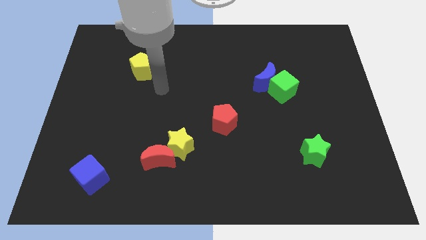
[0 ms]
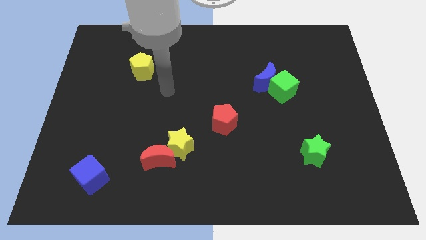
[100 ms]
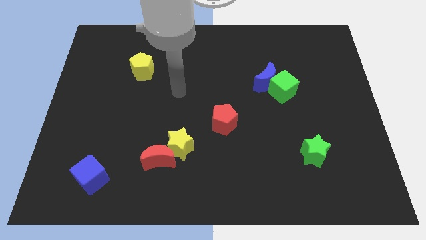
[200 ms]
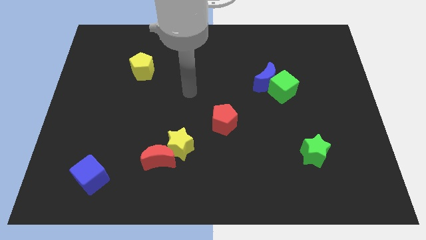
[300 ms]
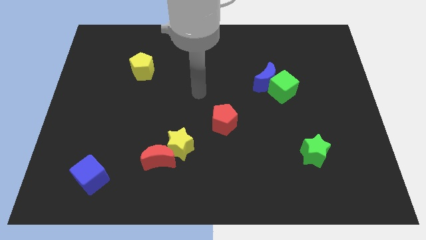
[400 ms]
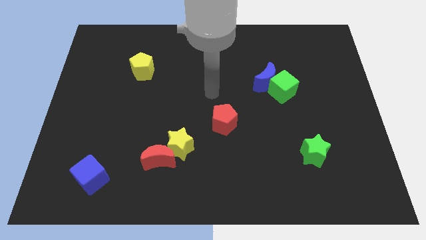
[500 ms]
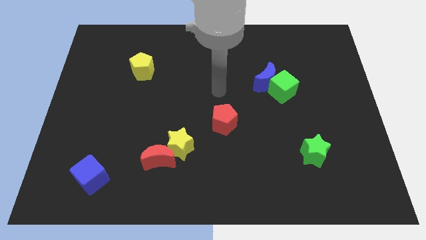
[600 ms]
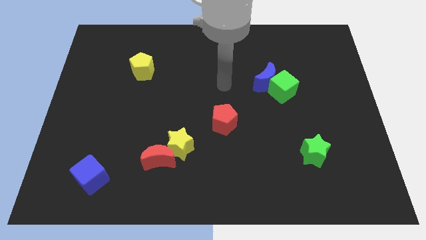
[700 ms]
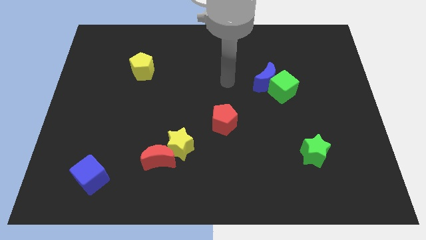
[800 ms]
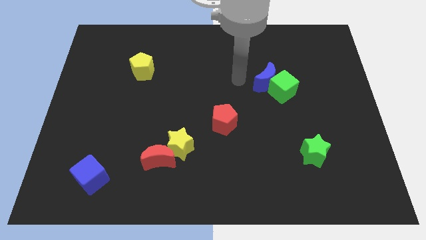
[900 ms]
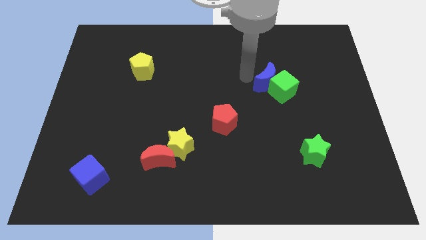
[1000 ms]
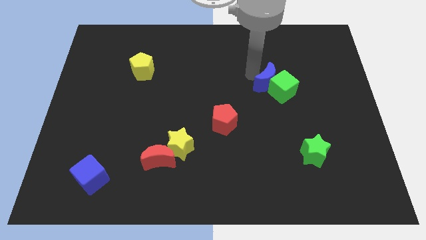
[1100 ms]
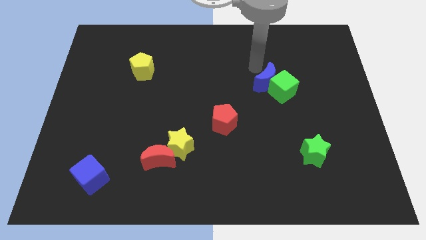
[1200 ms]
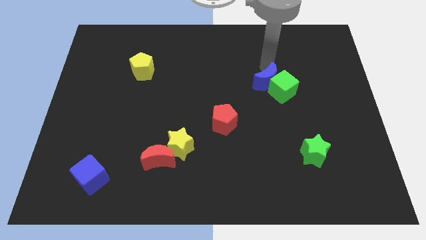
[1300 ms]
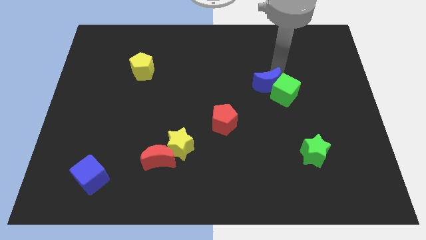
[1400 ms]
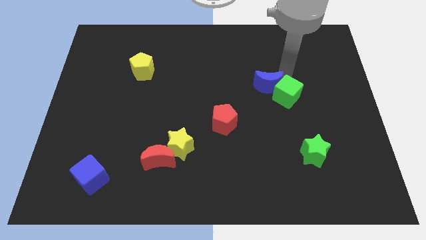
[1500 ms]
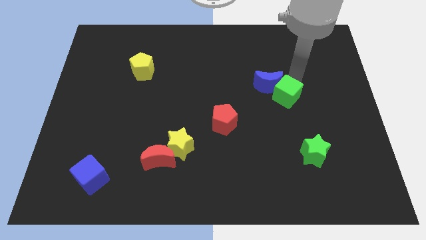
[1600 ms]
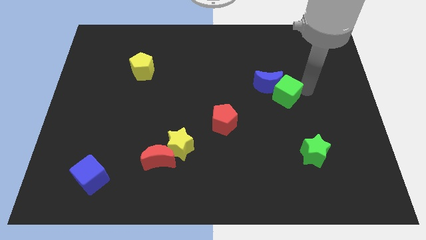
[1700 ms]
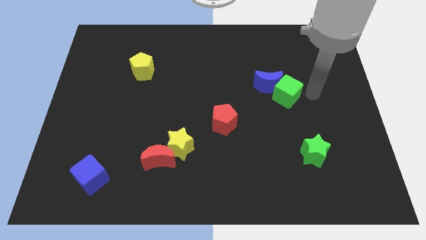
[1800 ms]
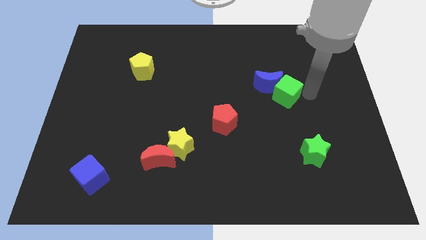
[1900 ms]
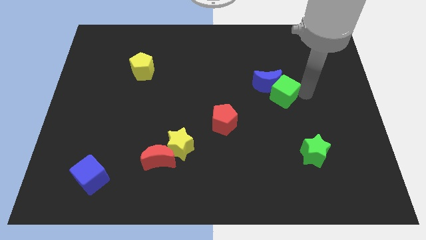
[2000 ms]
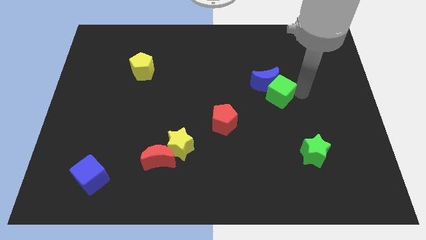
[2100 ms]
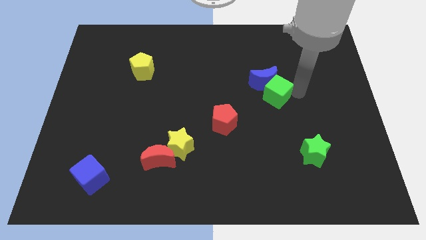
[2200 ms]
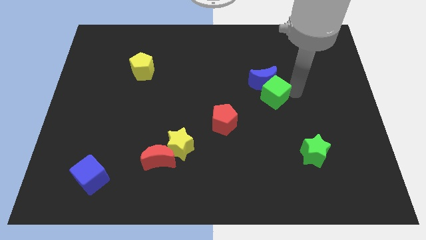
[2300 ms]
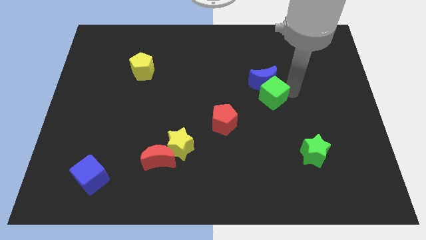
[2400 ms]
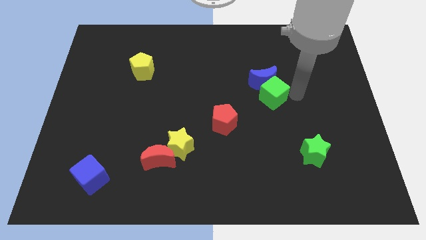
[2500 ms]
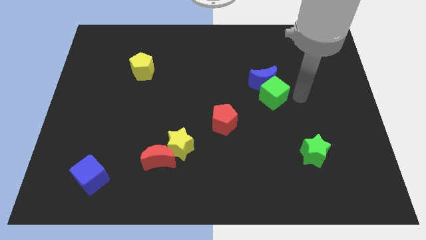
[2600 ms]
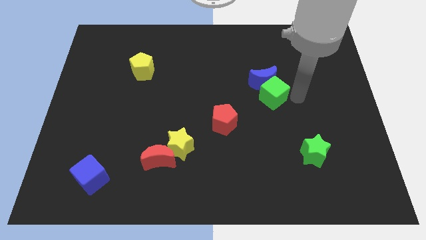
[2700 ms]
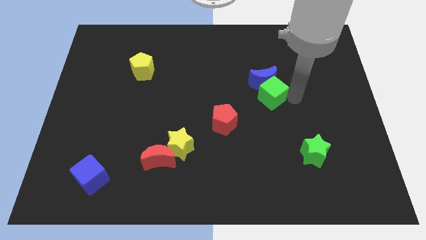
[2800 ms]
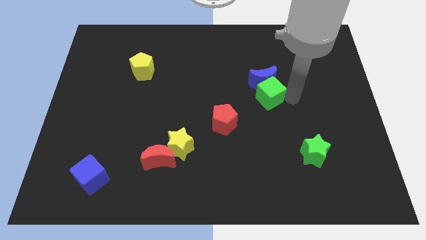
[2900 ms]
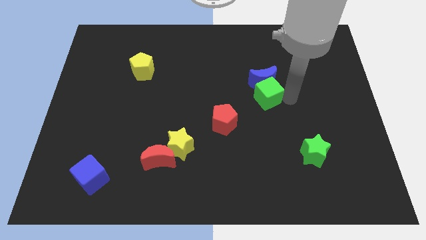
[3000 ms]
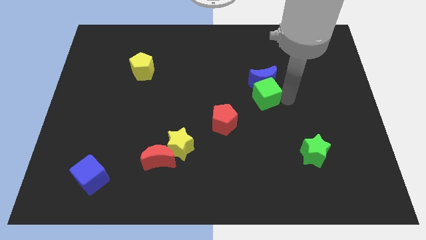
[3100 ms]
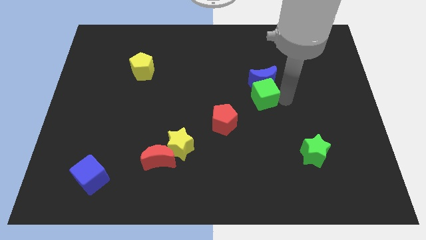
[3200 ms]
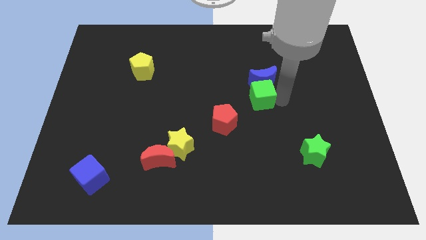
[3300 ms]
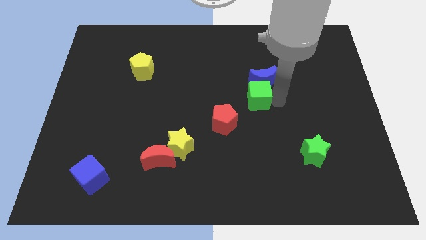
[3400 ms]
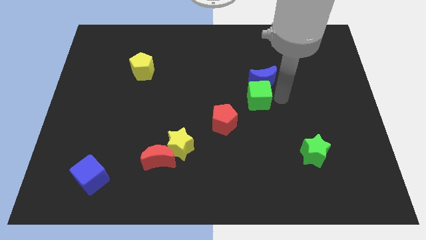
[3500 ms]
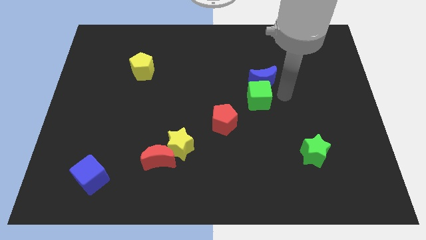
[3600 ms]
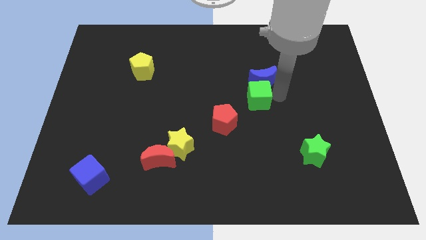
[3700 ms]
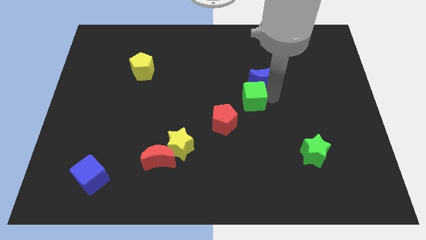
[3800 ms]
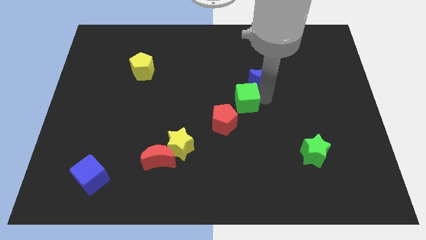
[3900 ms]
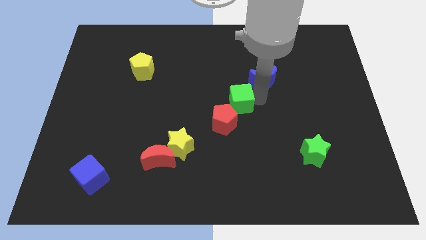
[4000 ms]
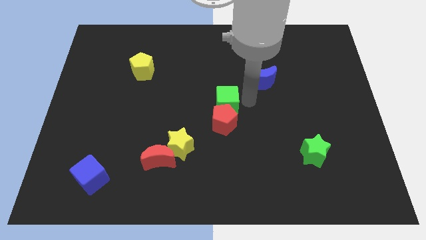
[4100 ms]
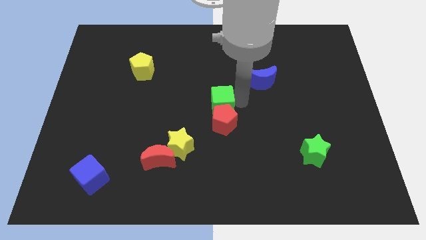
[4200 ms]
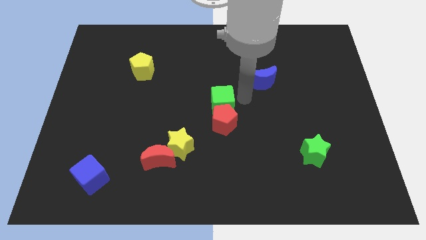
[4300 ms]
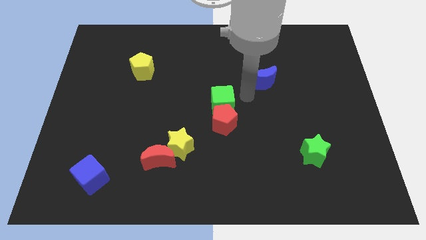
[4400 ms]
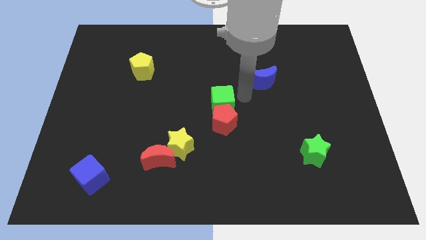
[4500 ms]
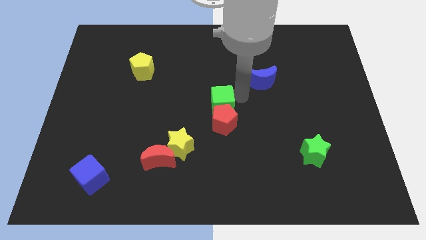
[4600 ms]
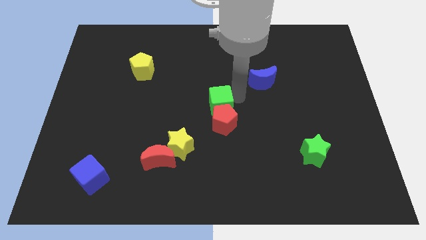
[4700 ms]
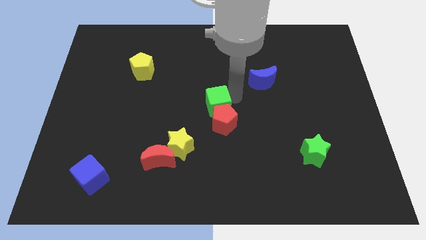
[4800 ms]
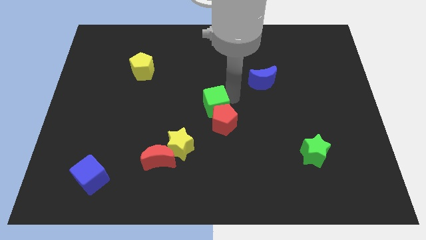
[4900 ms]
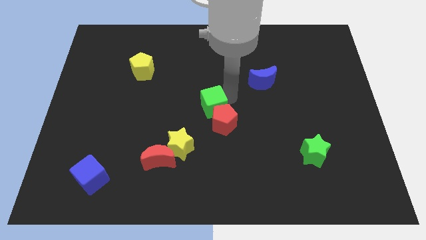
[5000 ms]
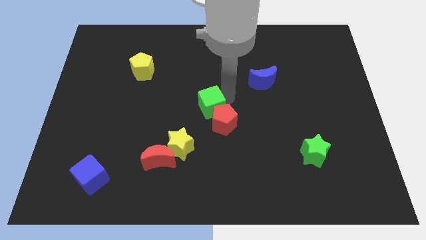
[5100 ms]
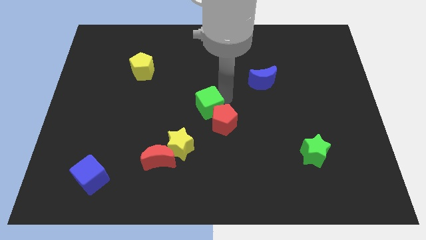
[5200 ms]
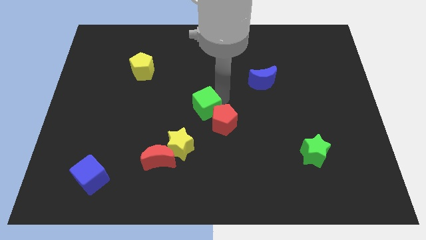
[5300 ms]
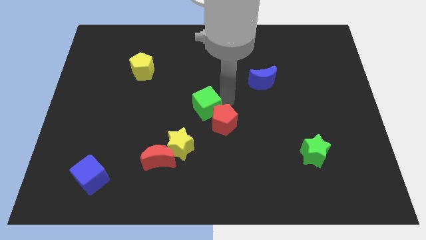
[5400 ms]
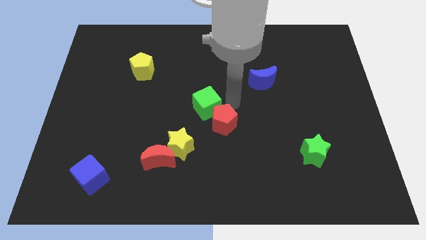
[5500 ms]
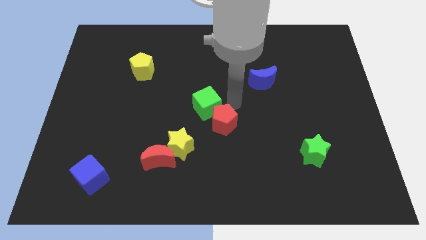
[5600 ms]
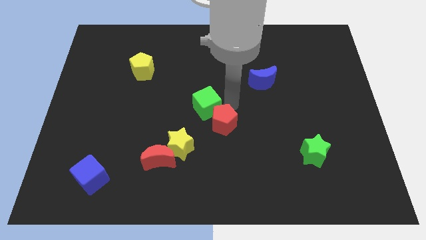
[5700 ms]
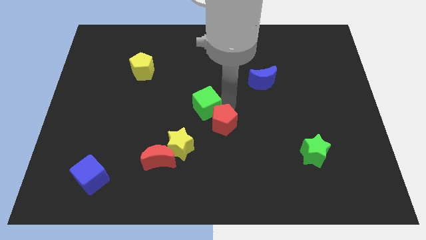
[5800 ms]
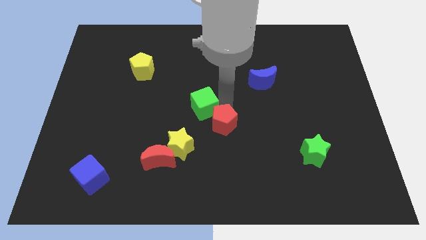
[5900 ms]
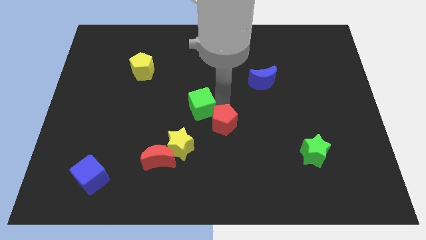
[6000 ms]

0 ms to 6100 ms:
put the green cube to the top side of the yellow star
